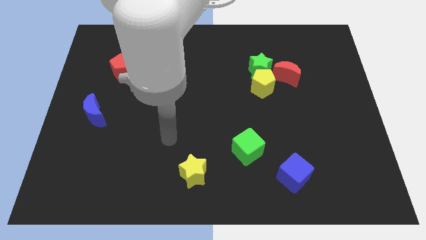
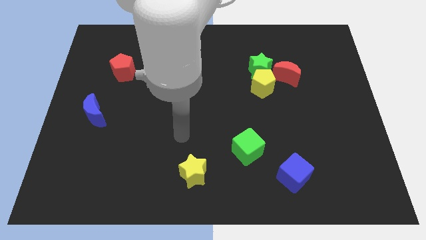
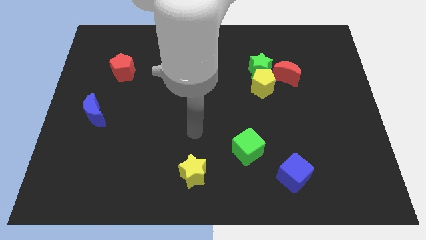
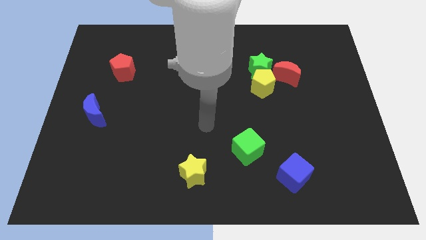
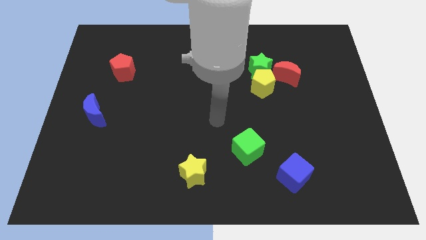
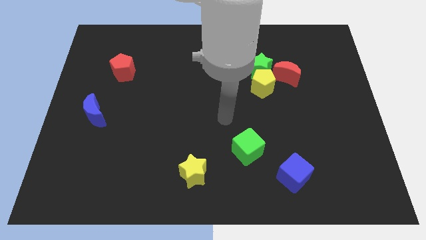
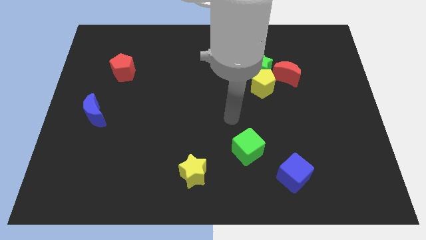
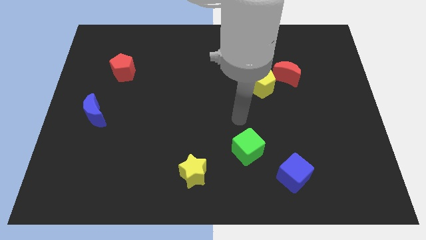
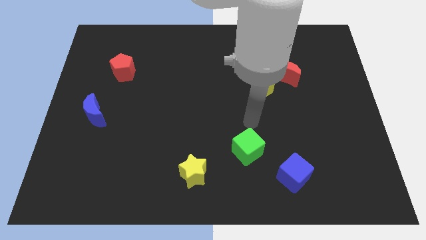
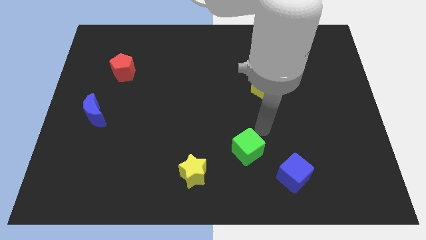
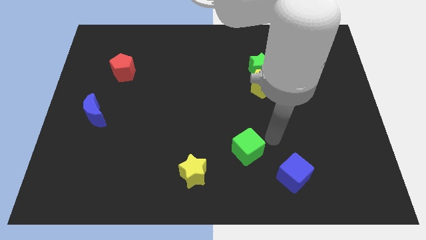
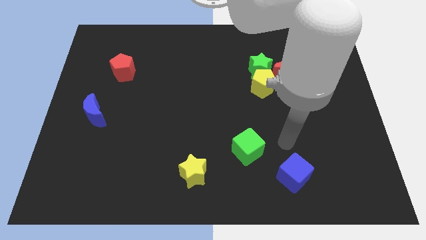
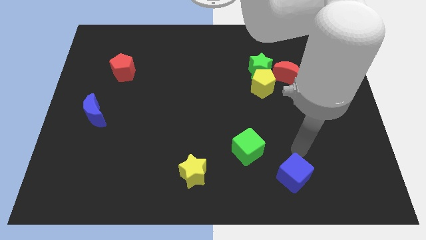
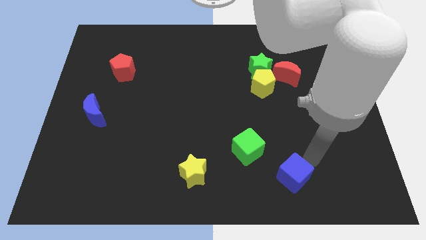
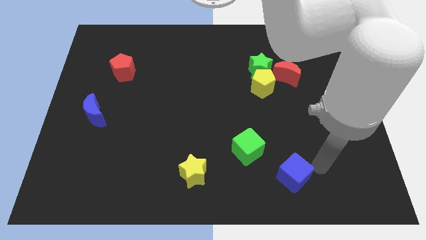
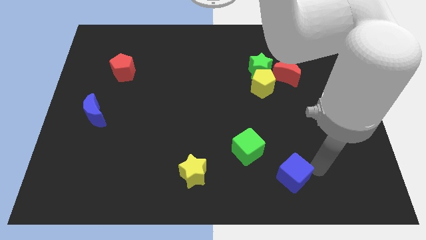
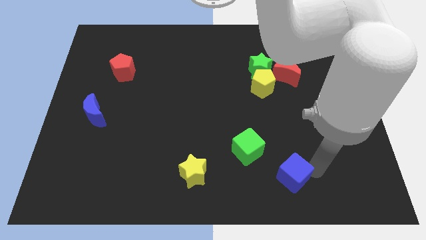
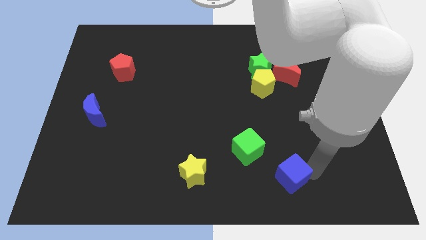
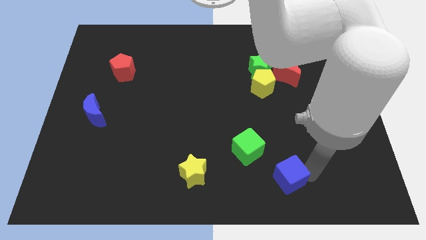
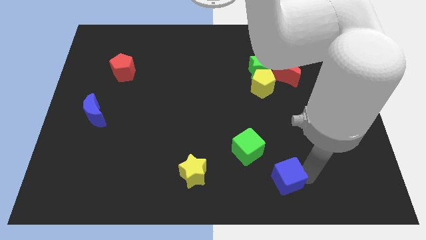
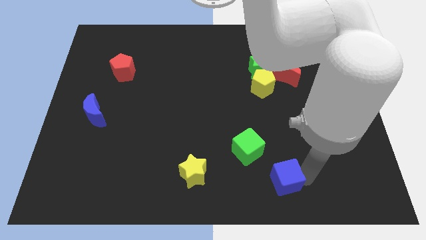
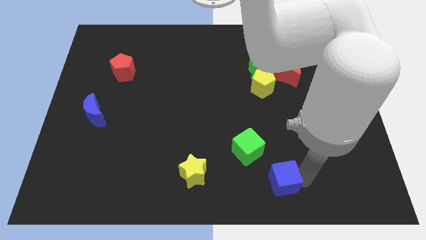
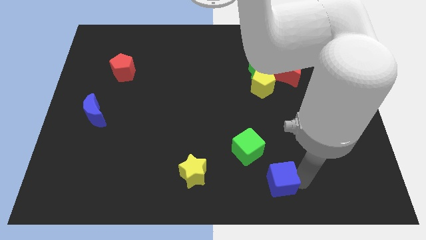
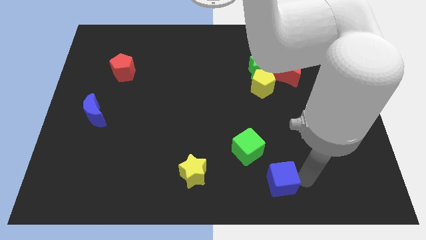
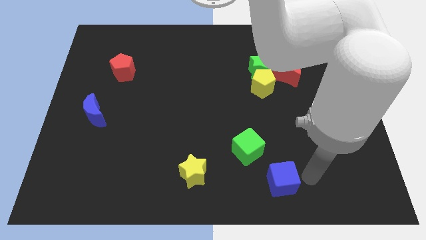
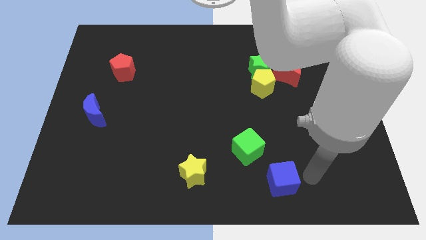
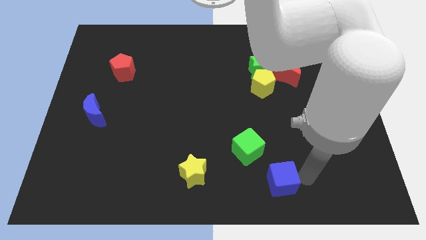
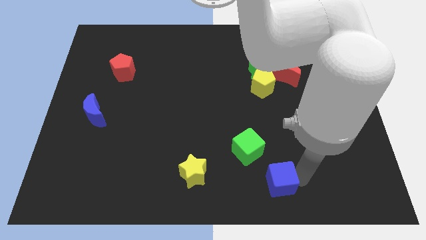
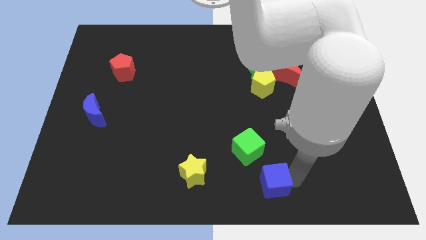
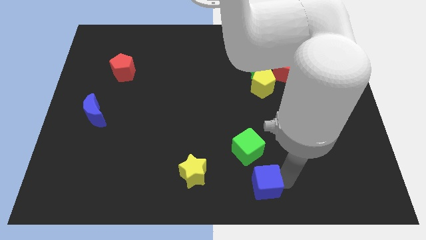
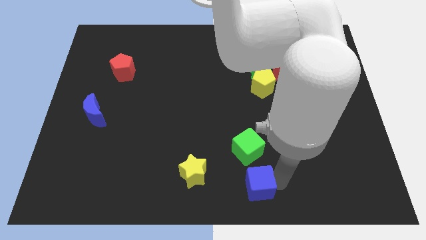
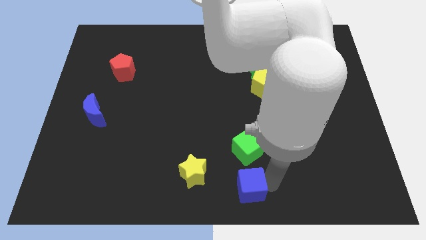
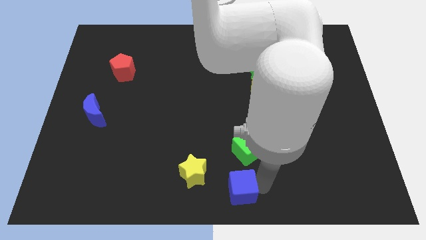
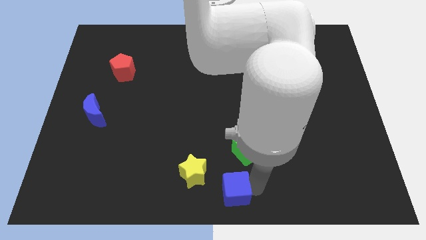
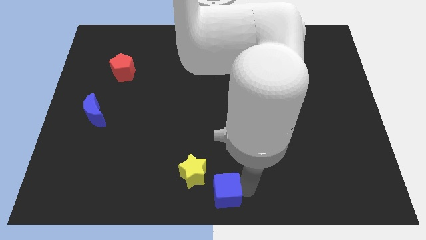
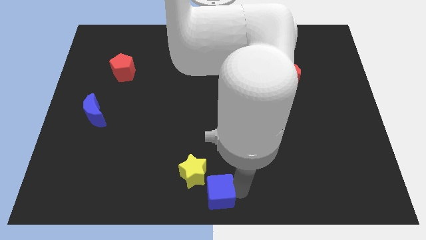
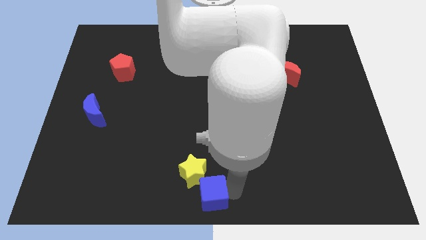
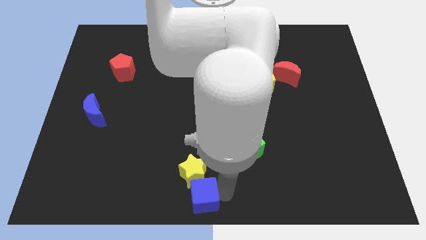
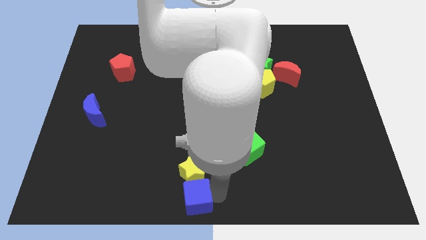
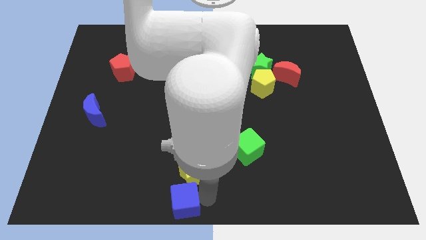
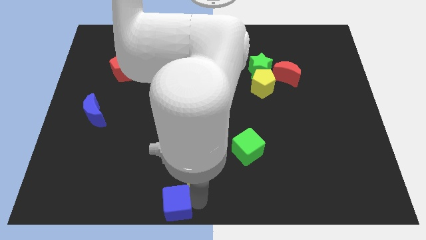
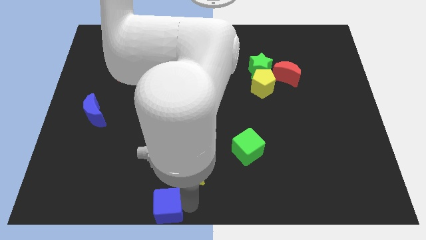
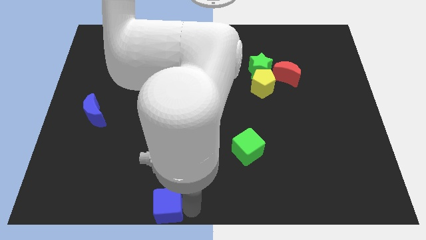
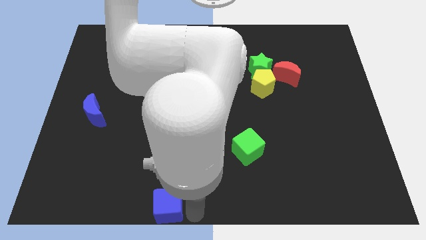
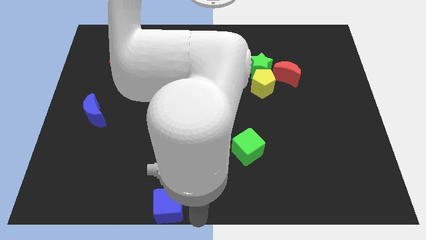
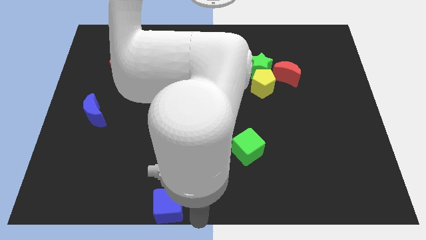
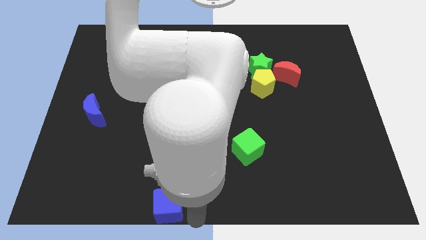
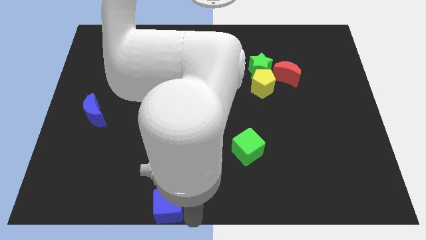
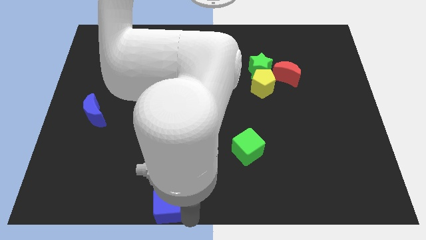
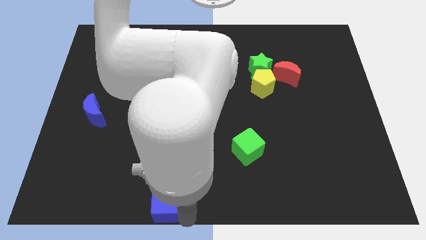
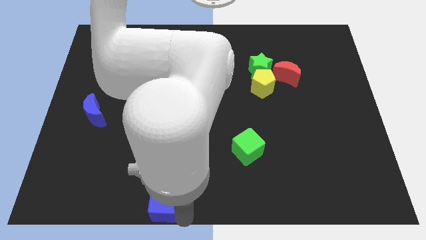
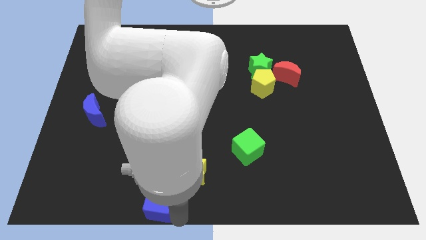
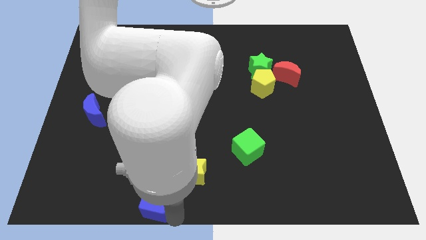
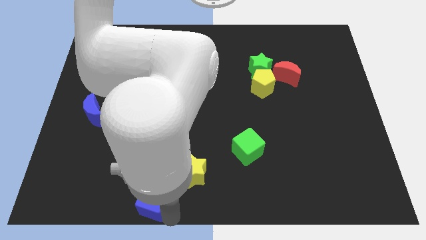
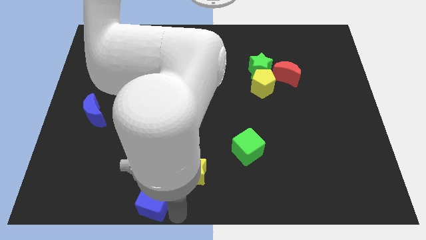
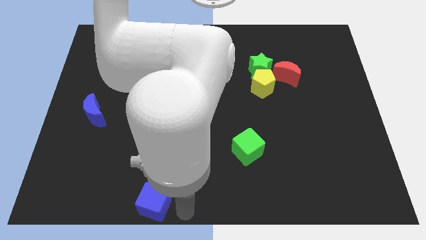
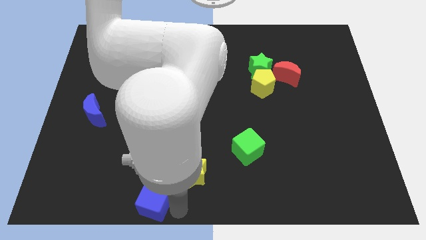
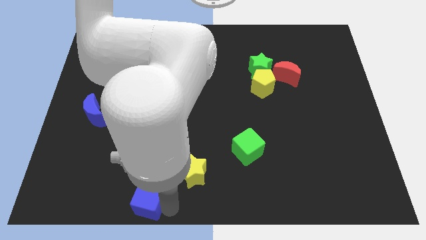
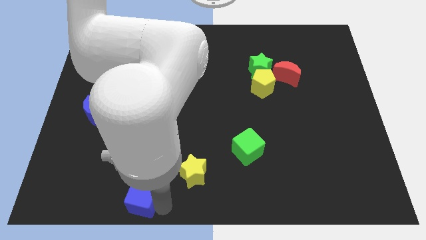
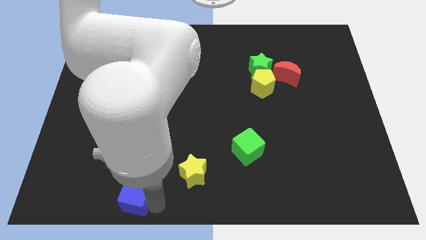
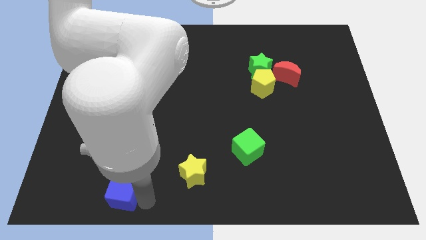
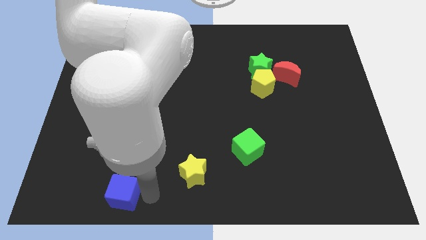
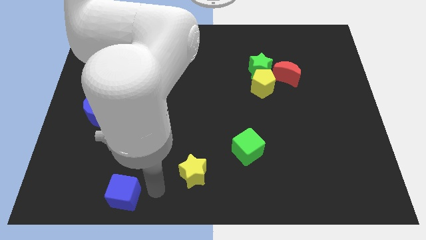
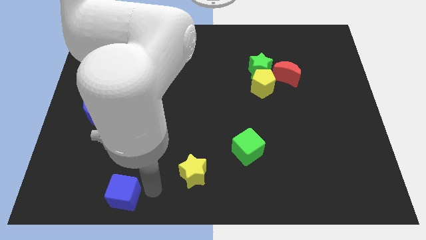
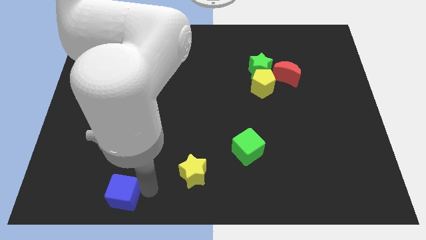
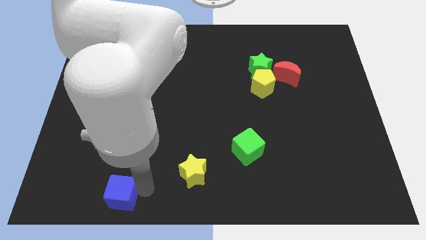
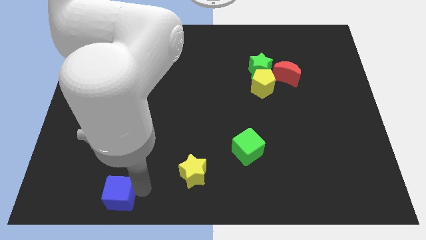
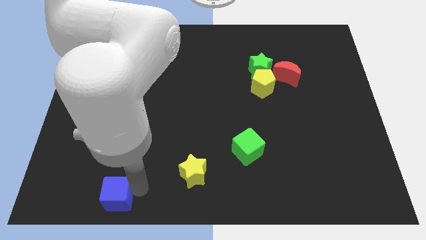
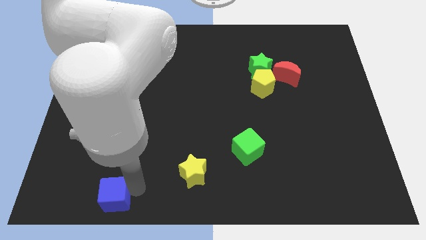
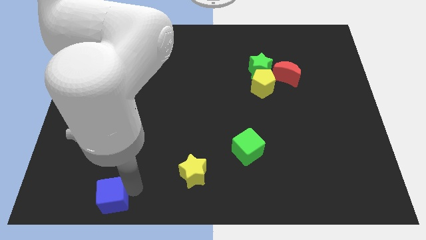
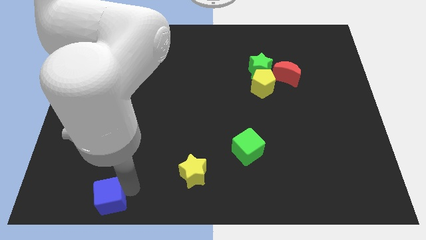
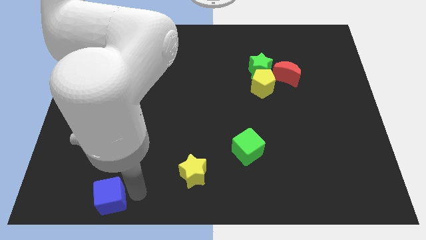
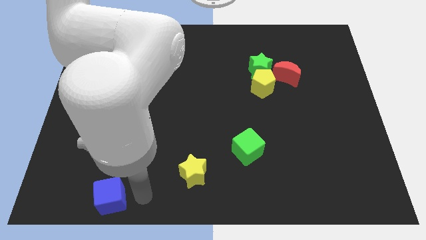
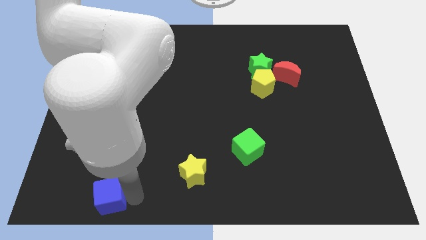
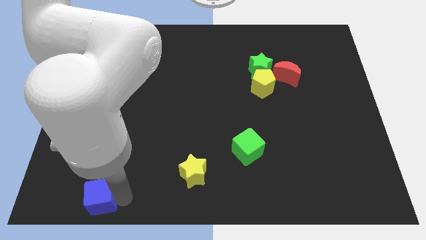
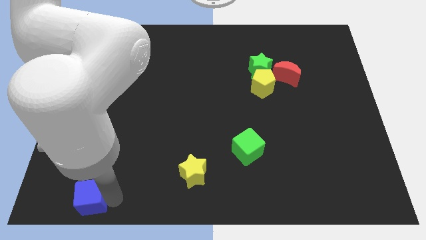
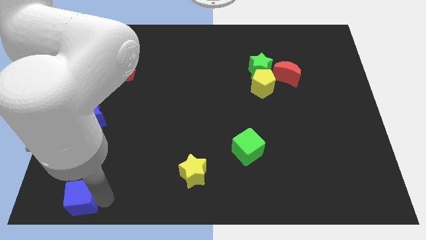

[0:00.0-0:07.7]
put the blue cube to the bottom left of the board
